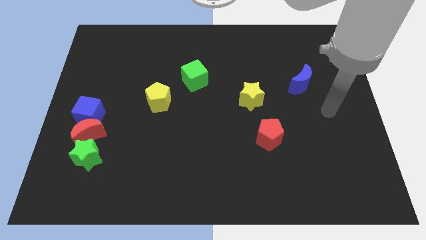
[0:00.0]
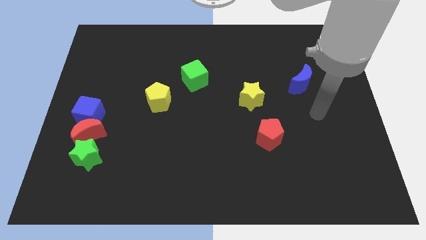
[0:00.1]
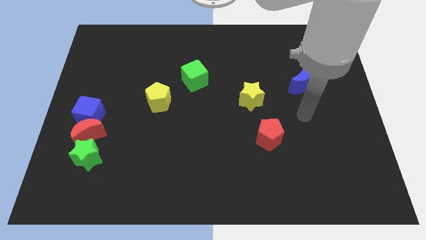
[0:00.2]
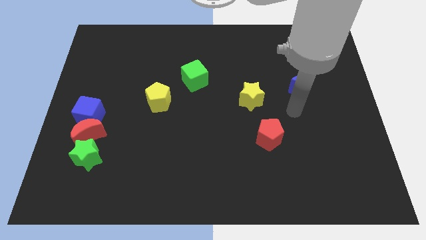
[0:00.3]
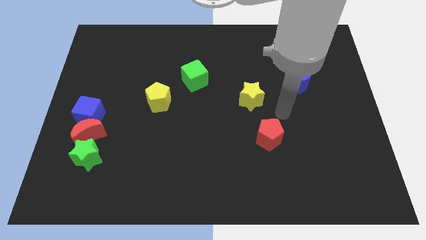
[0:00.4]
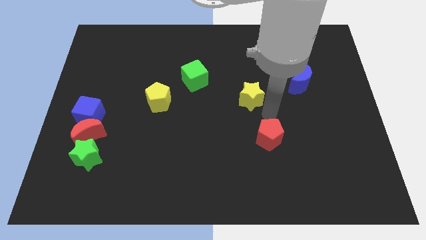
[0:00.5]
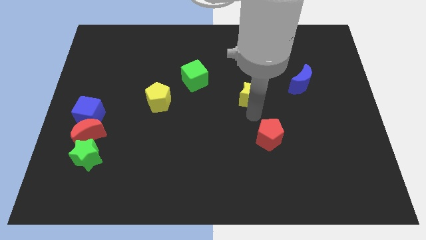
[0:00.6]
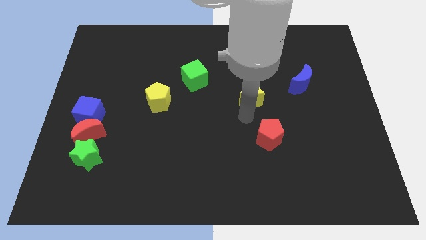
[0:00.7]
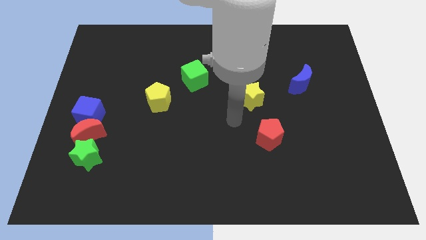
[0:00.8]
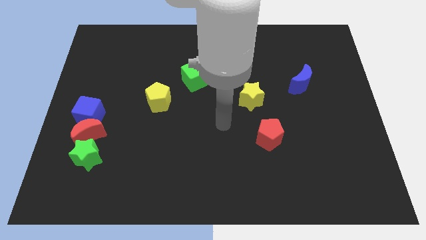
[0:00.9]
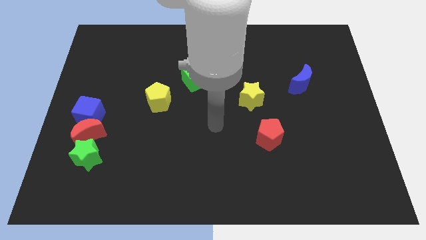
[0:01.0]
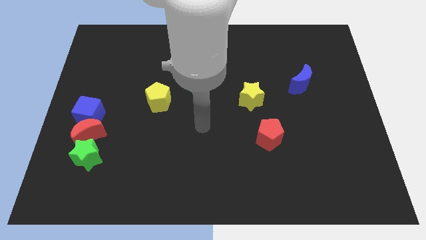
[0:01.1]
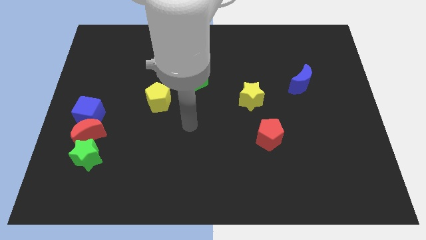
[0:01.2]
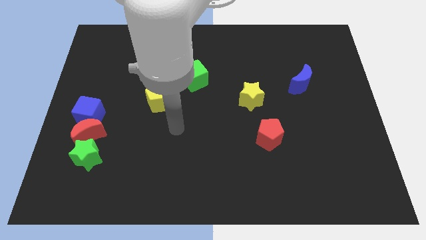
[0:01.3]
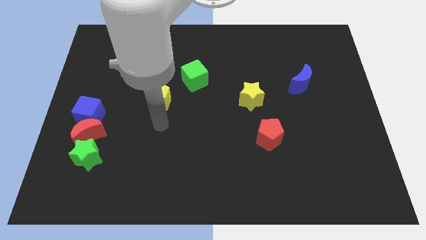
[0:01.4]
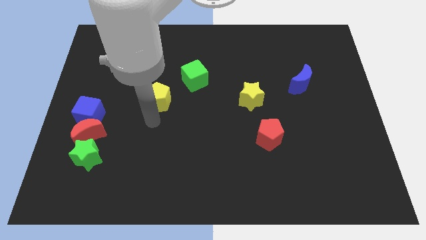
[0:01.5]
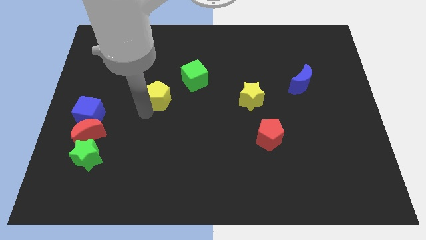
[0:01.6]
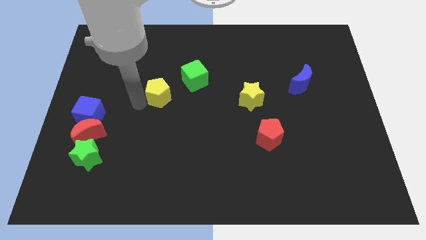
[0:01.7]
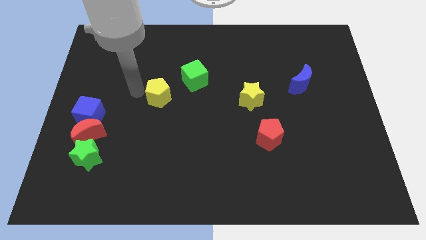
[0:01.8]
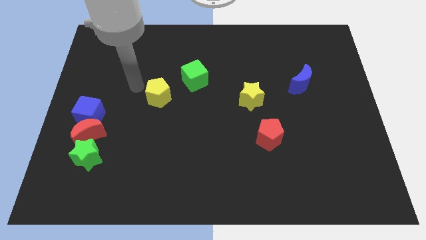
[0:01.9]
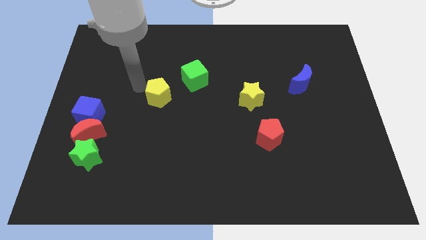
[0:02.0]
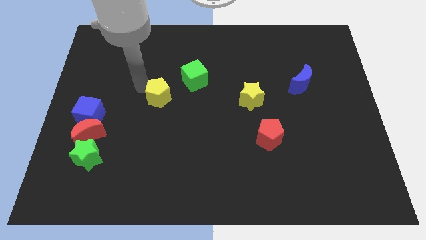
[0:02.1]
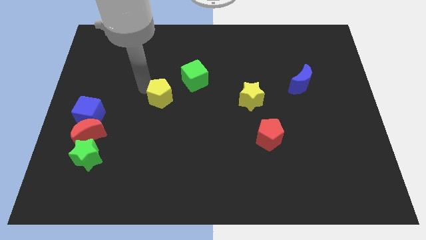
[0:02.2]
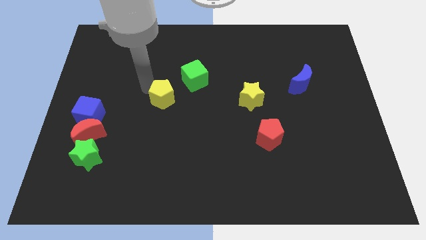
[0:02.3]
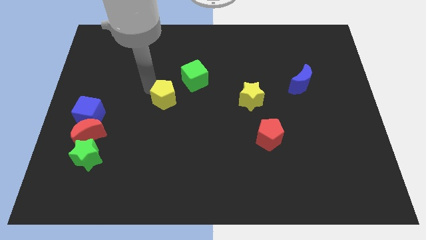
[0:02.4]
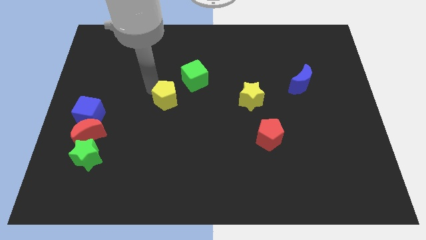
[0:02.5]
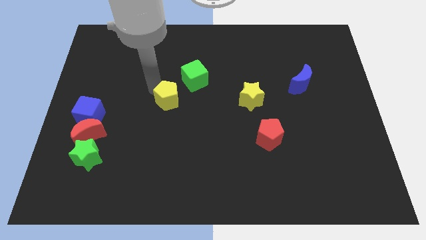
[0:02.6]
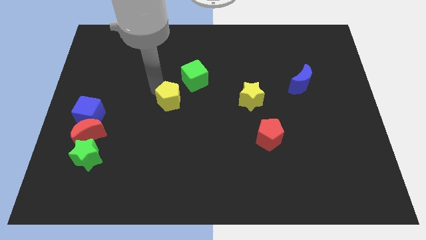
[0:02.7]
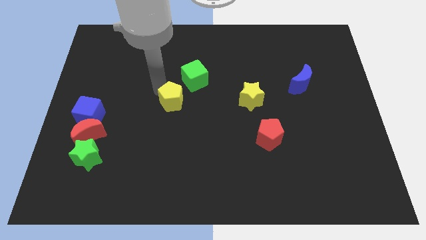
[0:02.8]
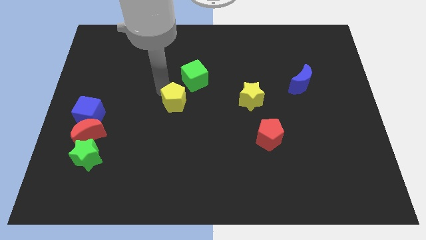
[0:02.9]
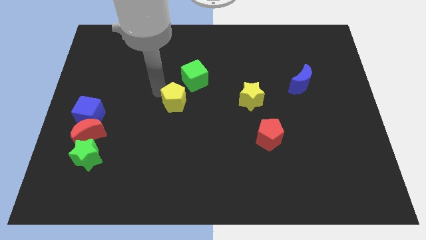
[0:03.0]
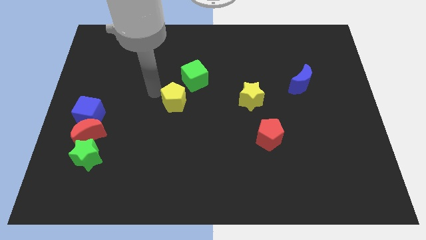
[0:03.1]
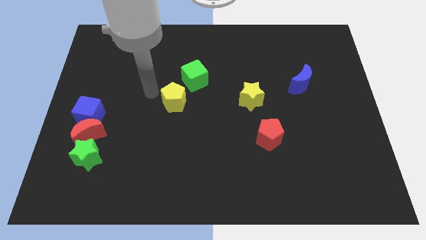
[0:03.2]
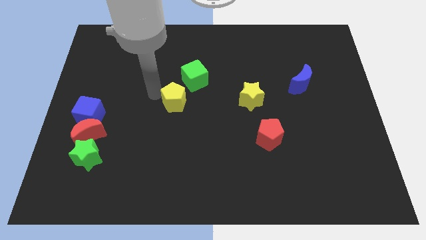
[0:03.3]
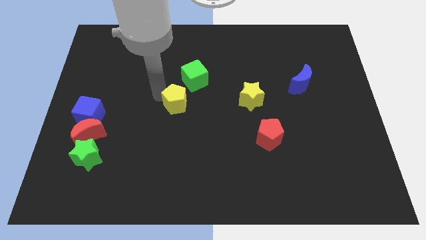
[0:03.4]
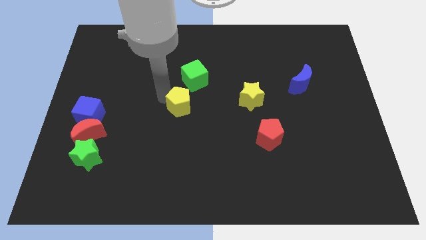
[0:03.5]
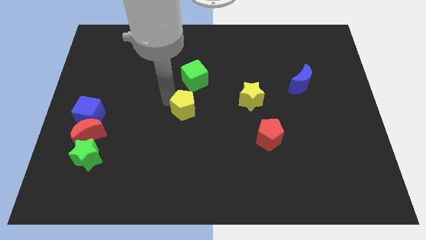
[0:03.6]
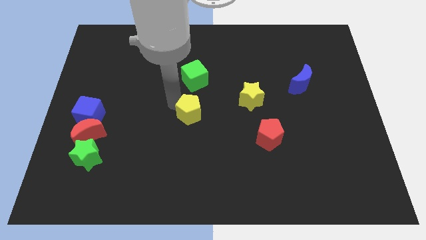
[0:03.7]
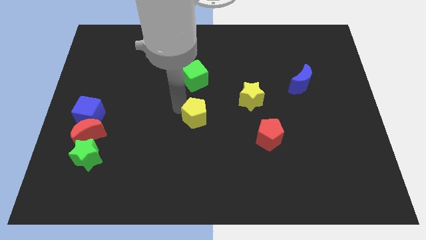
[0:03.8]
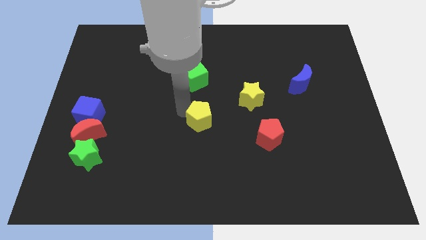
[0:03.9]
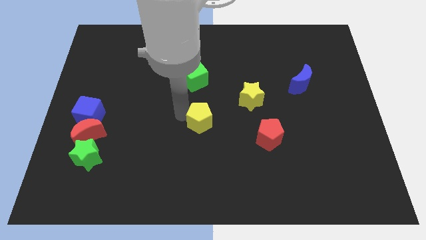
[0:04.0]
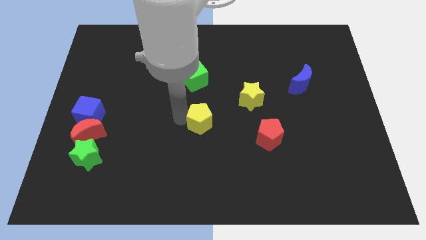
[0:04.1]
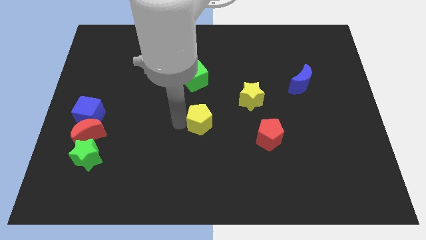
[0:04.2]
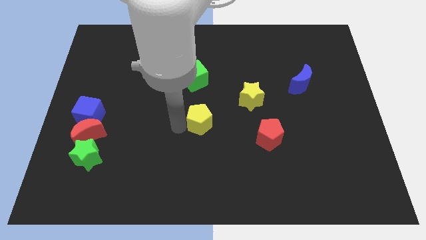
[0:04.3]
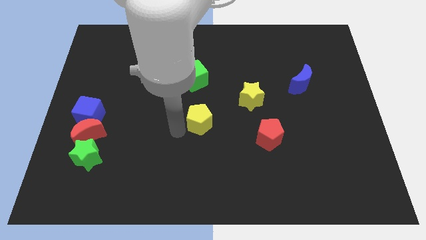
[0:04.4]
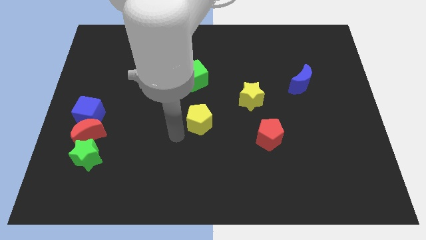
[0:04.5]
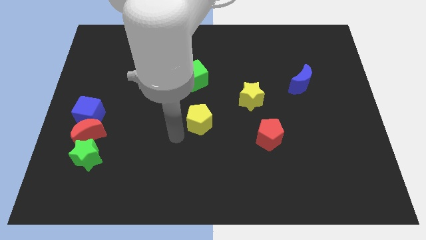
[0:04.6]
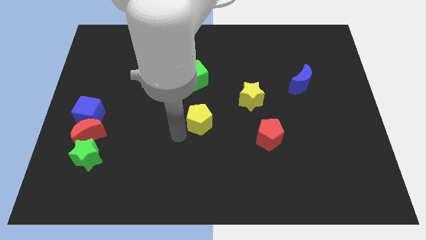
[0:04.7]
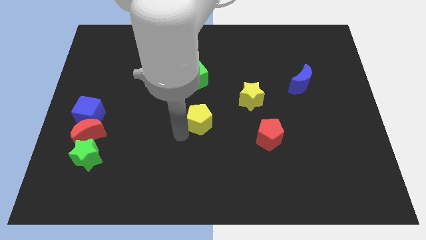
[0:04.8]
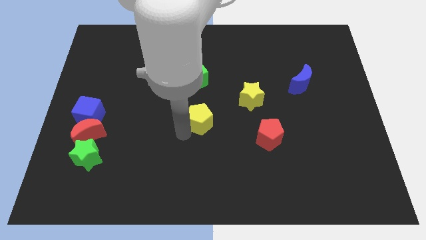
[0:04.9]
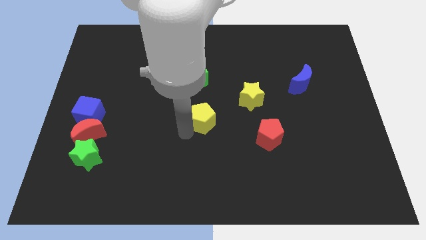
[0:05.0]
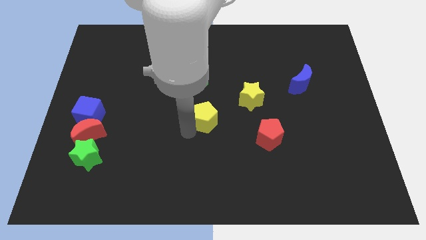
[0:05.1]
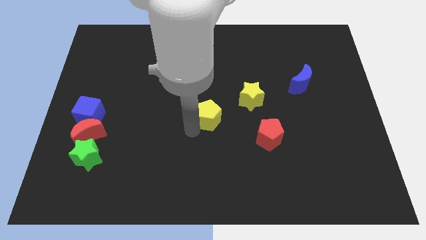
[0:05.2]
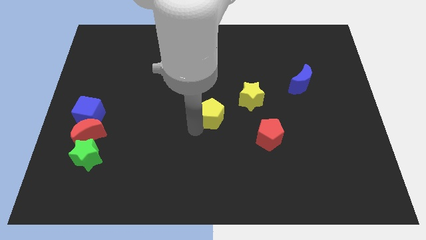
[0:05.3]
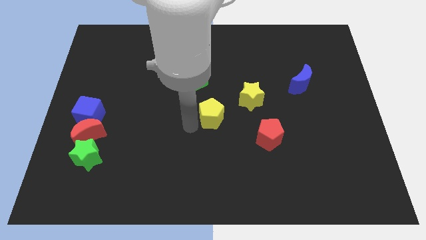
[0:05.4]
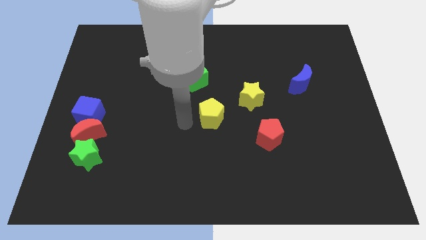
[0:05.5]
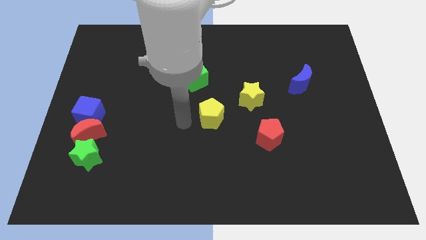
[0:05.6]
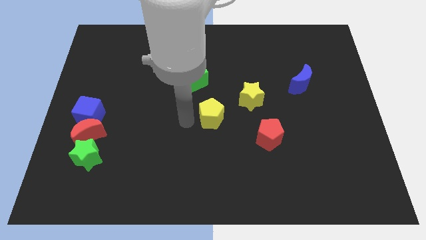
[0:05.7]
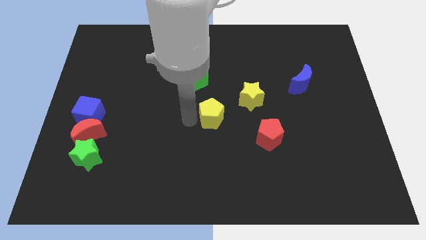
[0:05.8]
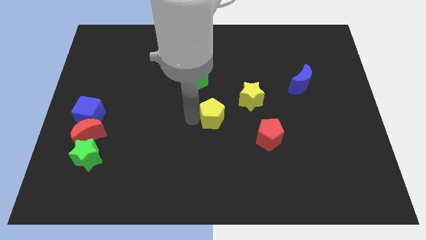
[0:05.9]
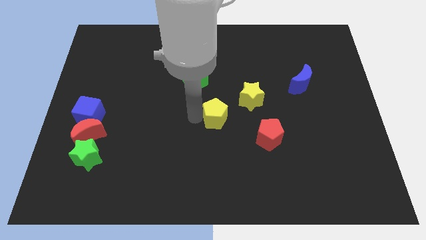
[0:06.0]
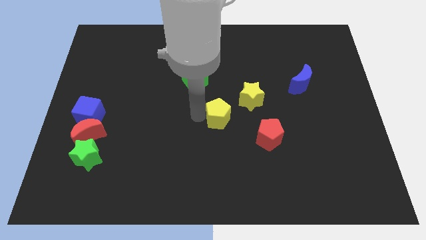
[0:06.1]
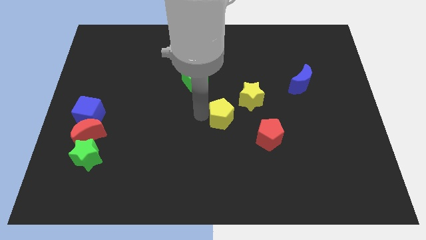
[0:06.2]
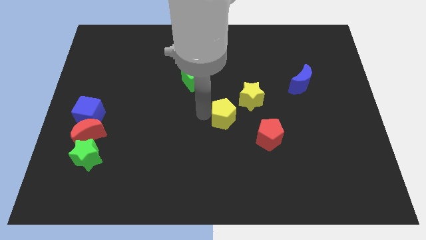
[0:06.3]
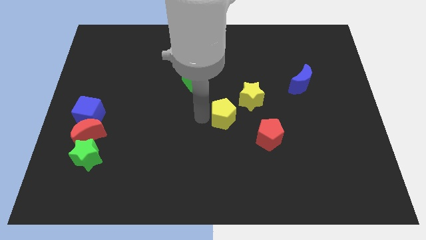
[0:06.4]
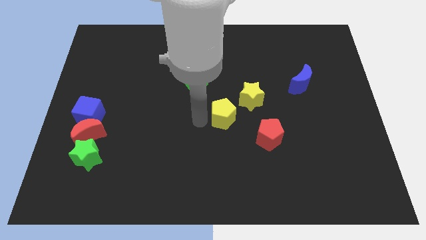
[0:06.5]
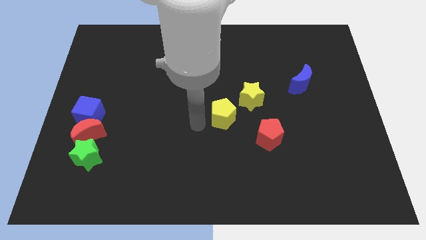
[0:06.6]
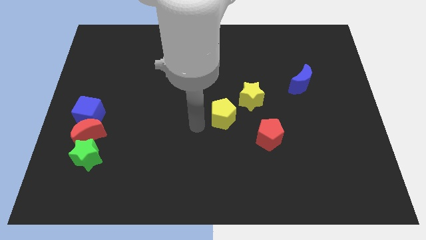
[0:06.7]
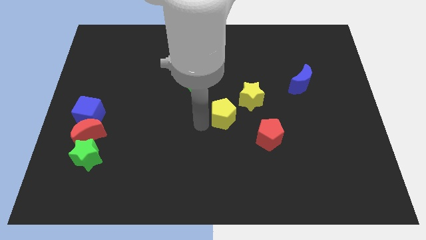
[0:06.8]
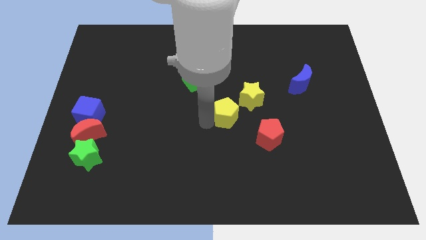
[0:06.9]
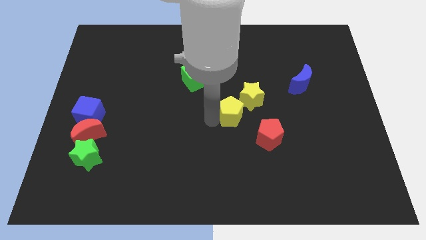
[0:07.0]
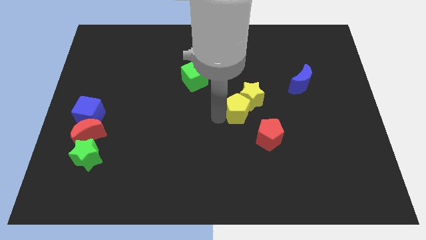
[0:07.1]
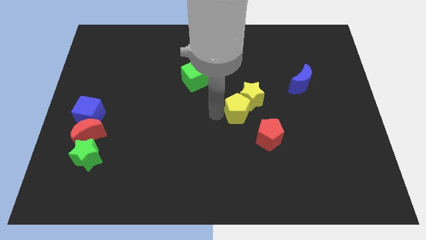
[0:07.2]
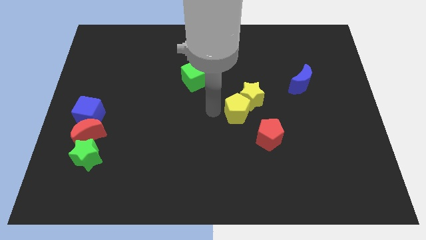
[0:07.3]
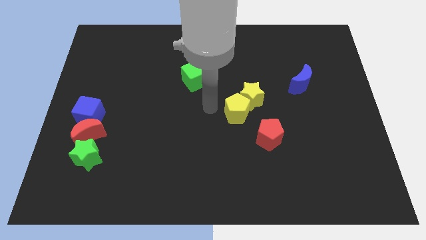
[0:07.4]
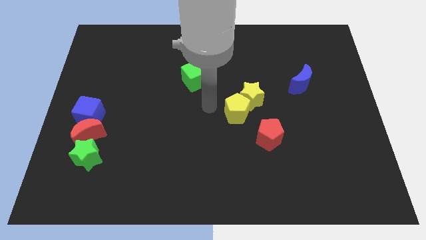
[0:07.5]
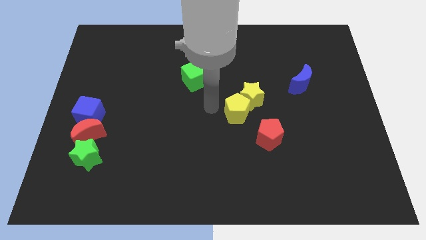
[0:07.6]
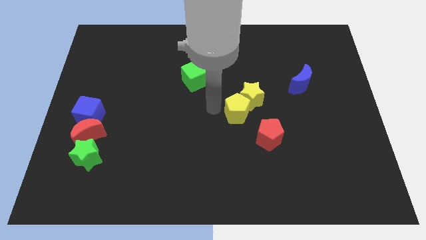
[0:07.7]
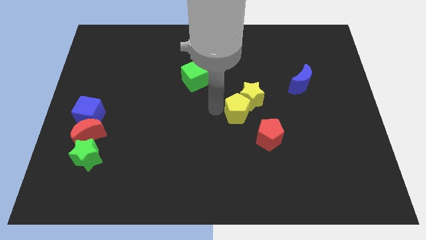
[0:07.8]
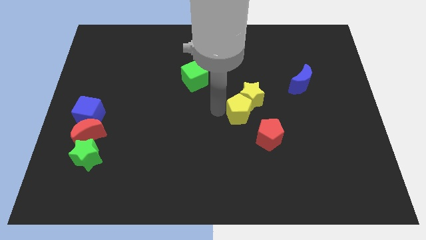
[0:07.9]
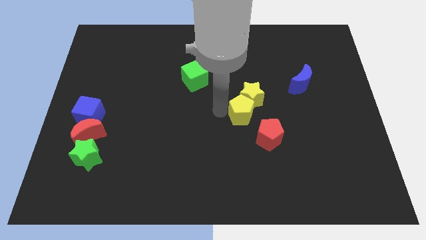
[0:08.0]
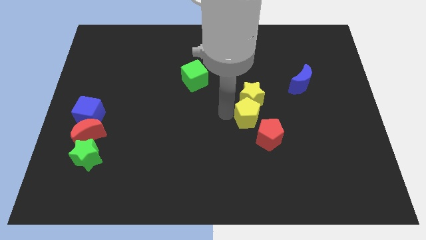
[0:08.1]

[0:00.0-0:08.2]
move the yellow pentagon to the right
